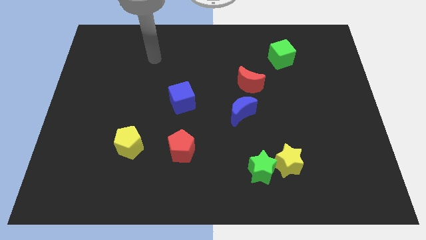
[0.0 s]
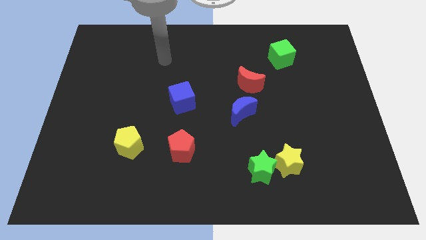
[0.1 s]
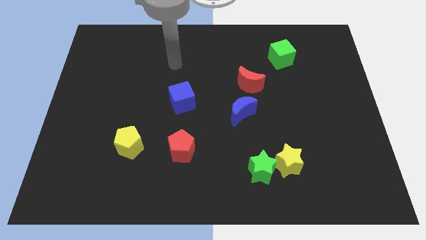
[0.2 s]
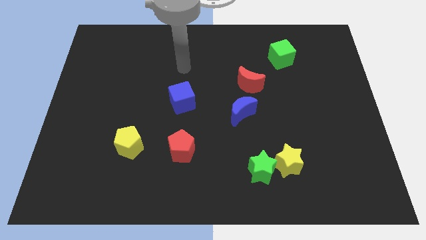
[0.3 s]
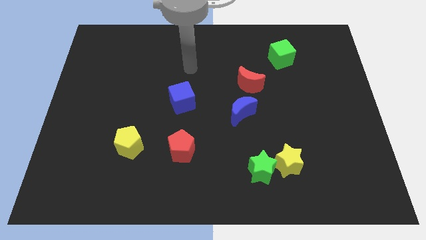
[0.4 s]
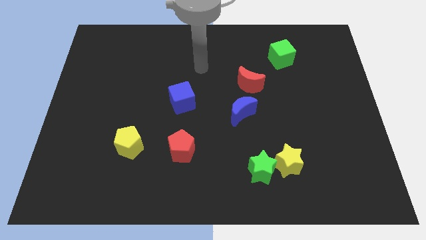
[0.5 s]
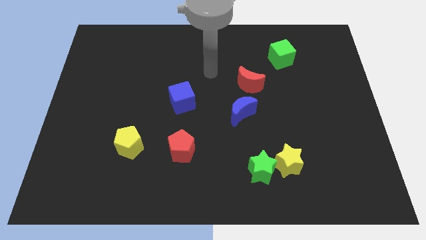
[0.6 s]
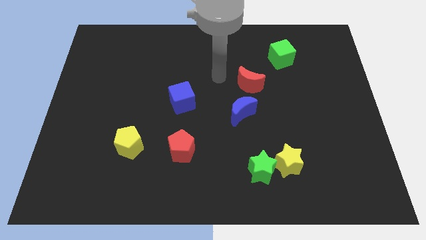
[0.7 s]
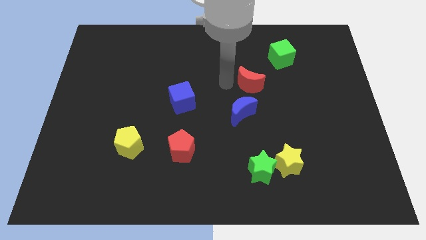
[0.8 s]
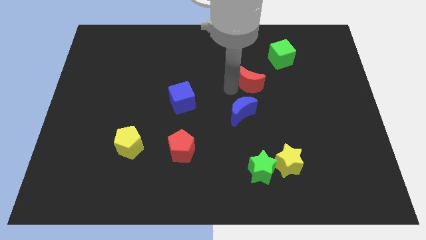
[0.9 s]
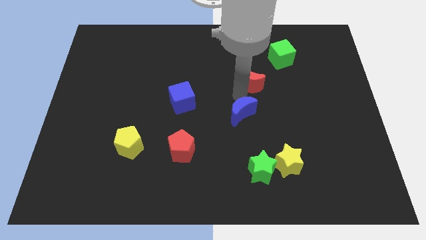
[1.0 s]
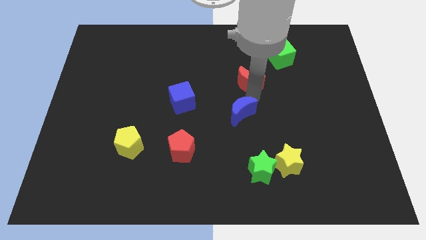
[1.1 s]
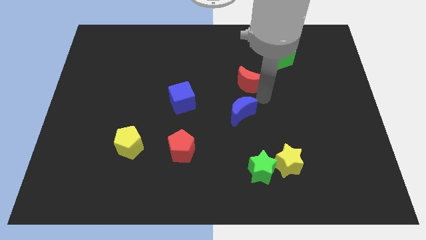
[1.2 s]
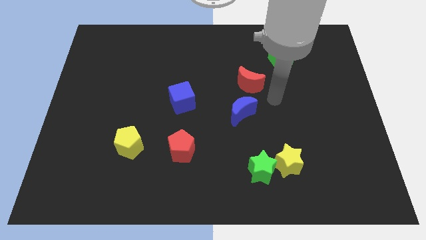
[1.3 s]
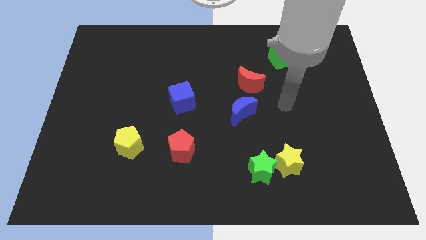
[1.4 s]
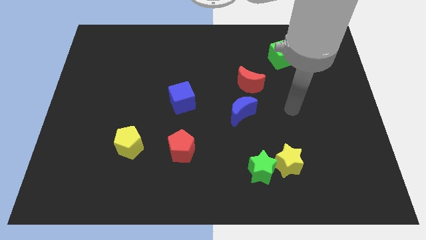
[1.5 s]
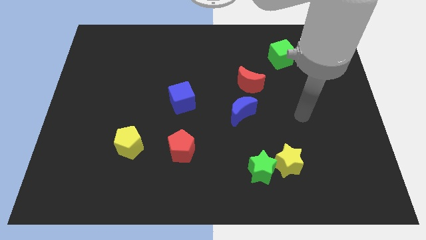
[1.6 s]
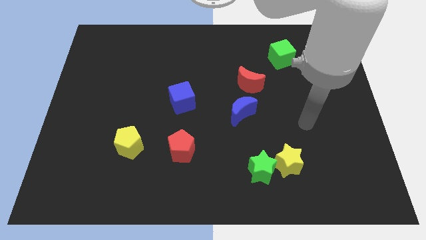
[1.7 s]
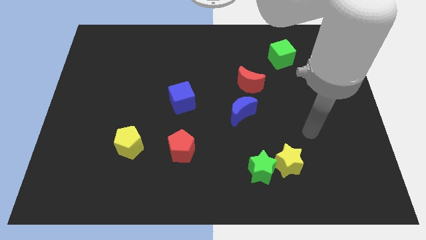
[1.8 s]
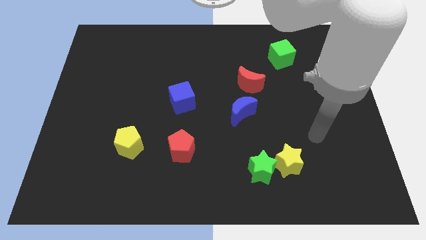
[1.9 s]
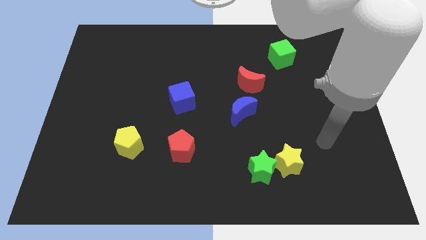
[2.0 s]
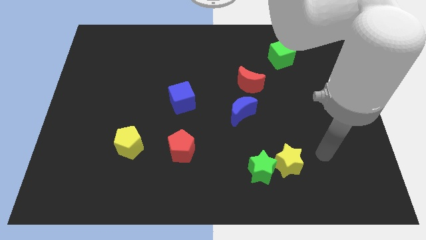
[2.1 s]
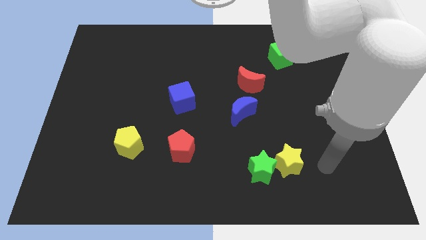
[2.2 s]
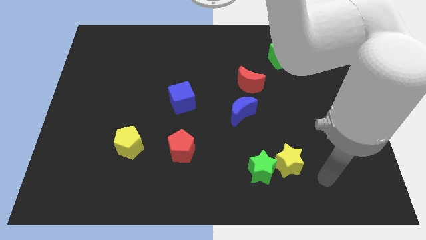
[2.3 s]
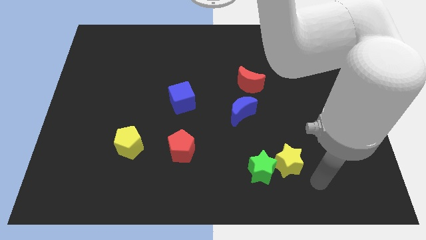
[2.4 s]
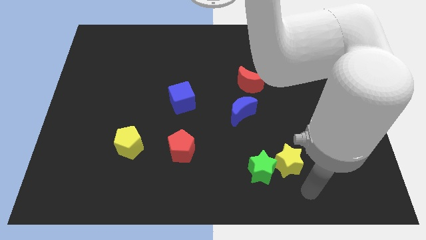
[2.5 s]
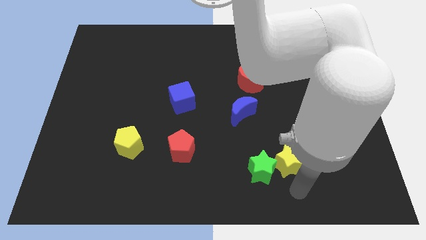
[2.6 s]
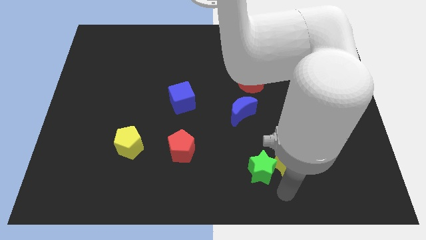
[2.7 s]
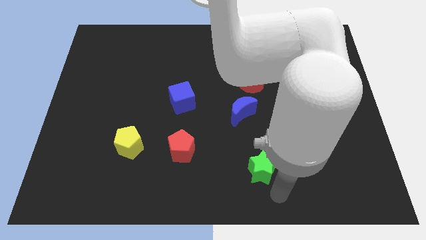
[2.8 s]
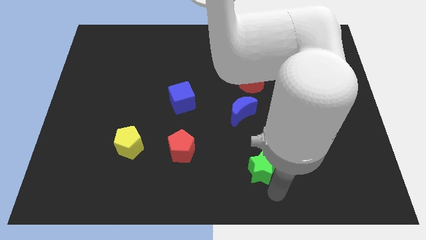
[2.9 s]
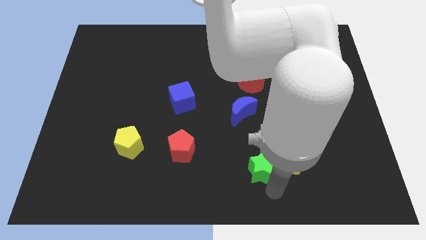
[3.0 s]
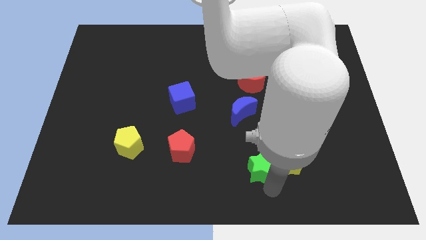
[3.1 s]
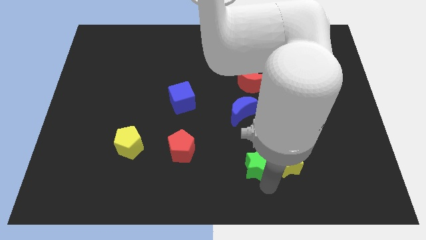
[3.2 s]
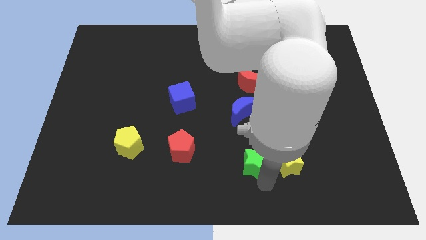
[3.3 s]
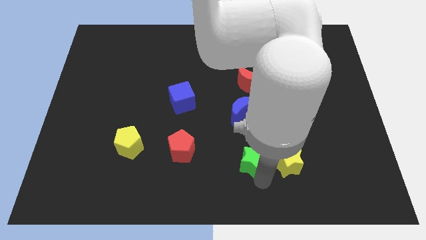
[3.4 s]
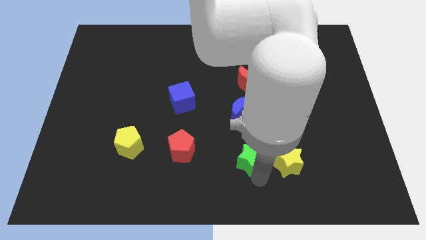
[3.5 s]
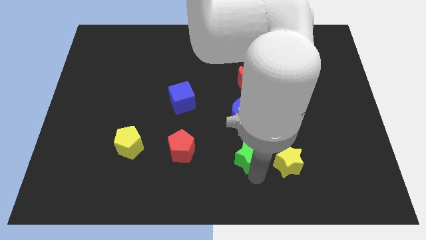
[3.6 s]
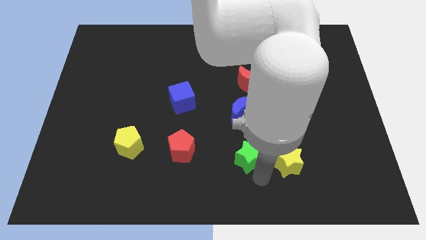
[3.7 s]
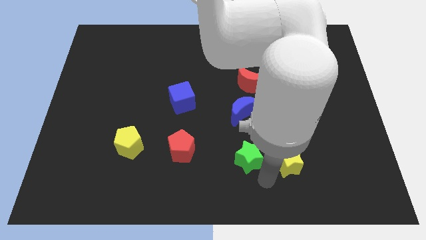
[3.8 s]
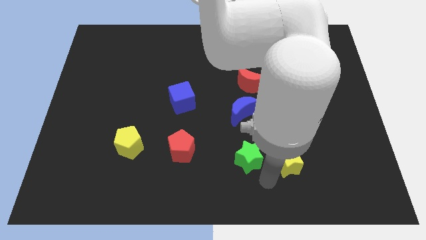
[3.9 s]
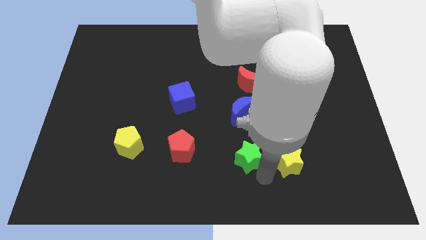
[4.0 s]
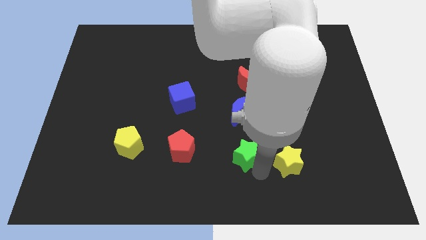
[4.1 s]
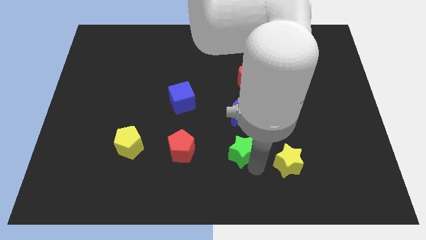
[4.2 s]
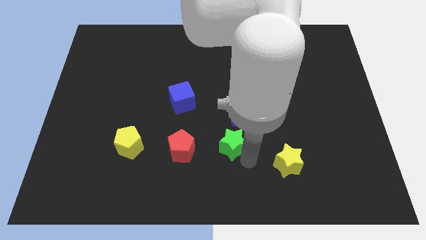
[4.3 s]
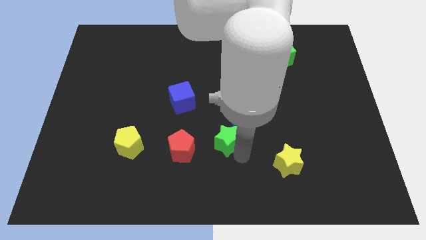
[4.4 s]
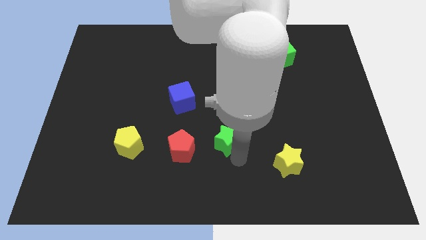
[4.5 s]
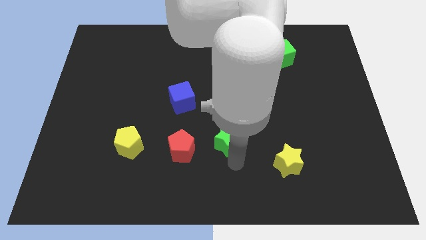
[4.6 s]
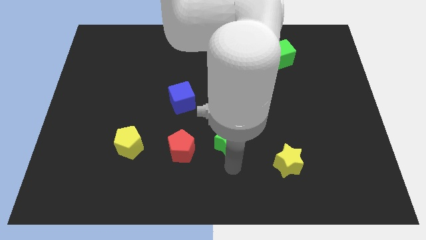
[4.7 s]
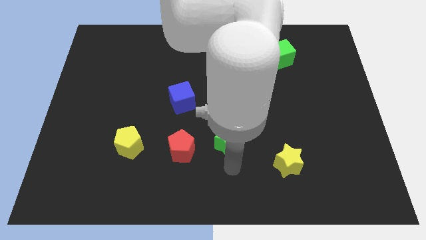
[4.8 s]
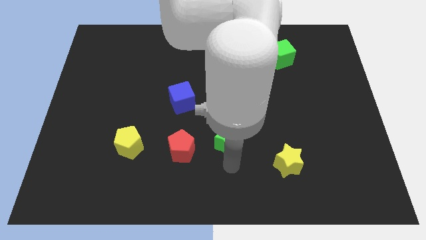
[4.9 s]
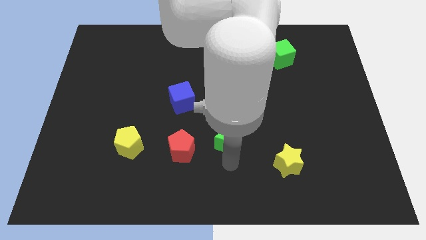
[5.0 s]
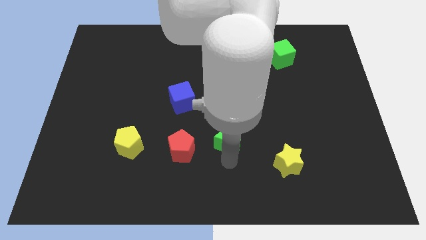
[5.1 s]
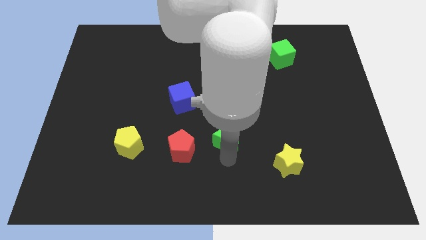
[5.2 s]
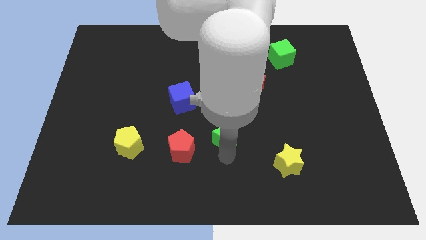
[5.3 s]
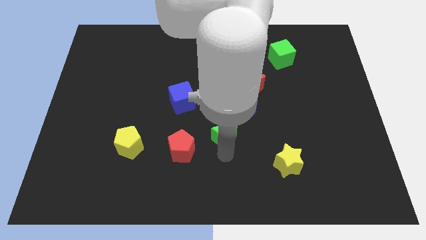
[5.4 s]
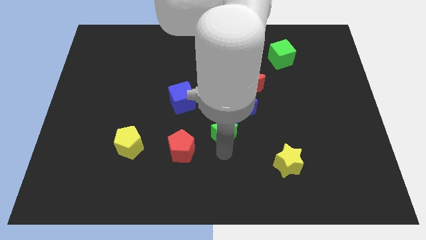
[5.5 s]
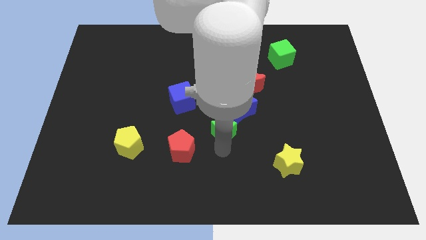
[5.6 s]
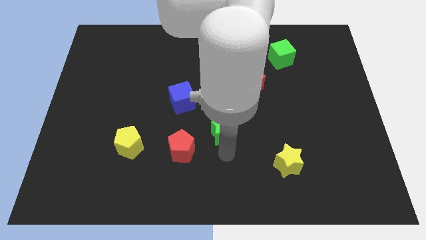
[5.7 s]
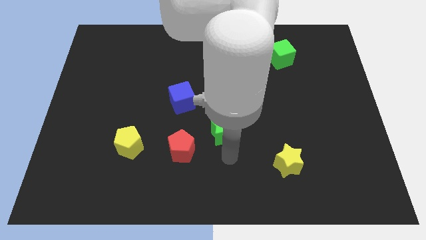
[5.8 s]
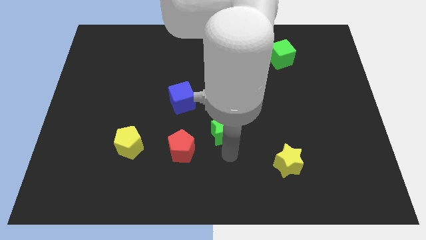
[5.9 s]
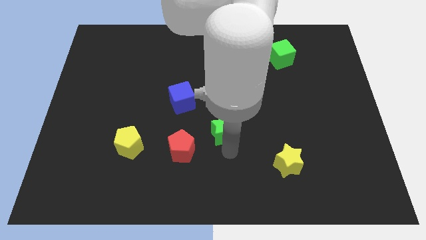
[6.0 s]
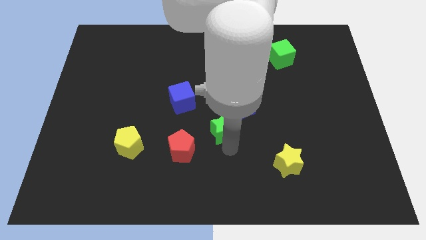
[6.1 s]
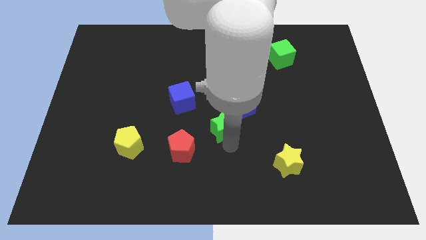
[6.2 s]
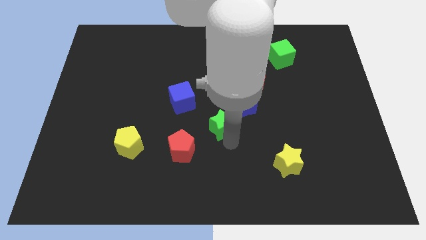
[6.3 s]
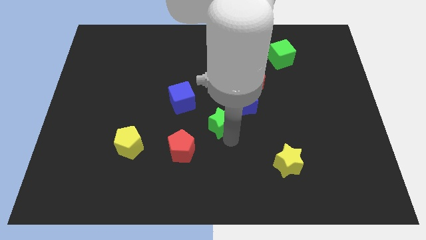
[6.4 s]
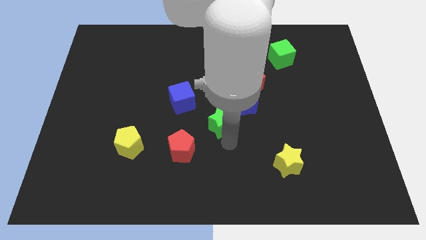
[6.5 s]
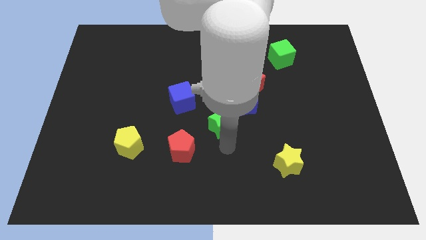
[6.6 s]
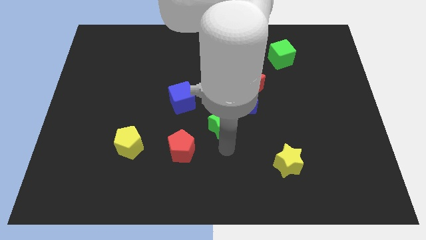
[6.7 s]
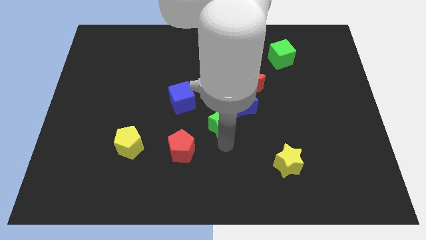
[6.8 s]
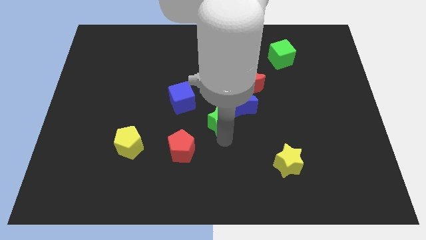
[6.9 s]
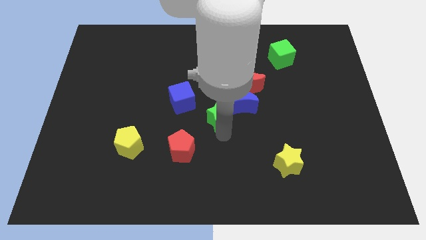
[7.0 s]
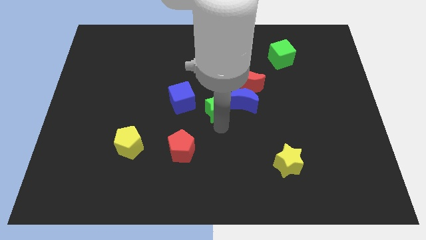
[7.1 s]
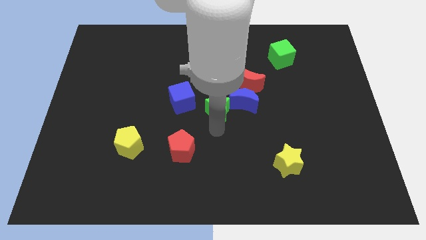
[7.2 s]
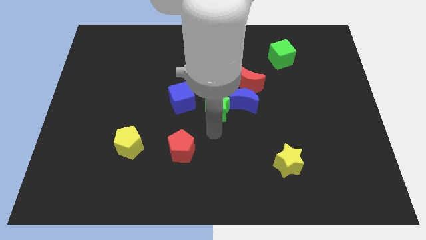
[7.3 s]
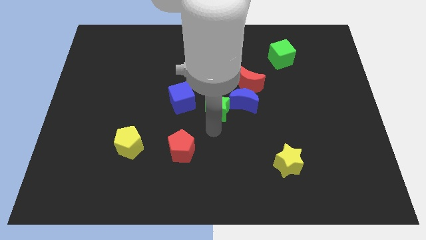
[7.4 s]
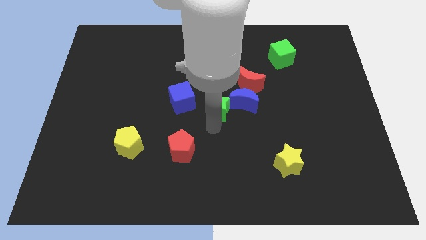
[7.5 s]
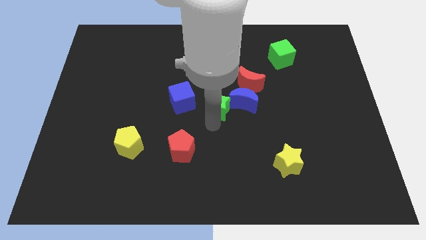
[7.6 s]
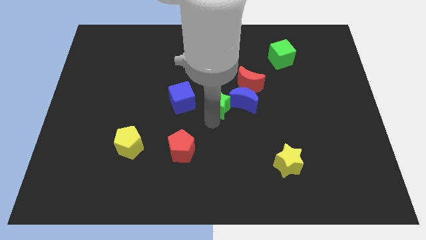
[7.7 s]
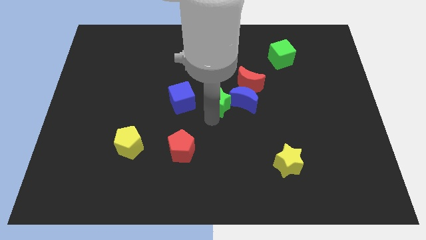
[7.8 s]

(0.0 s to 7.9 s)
move the green star to the top left of the blue moon
